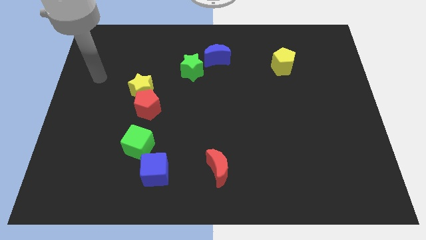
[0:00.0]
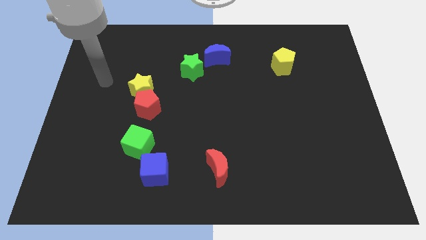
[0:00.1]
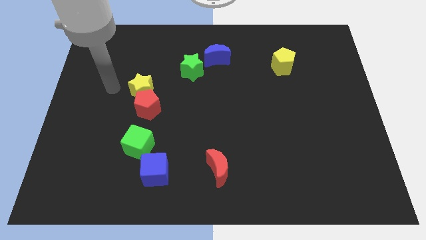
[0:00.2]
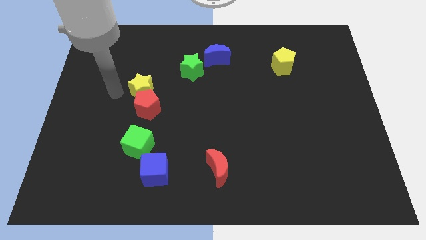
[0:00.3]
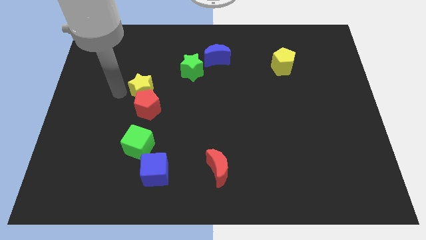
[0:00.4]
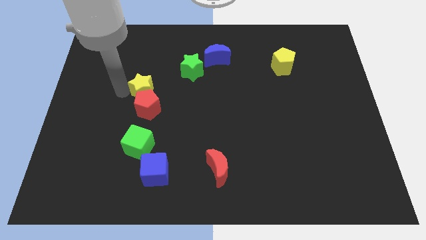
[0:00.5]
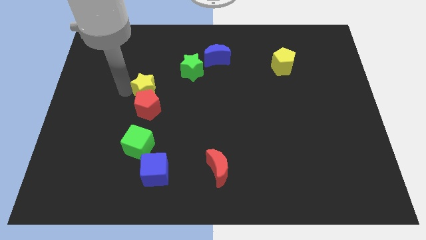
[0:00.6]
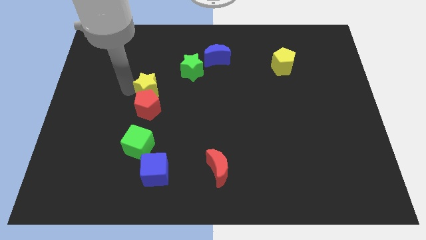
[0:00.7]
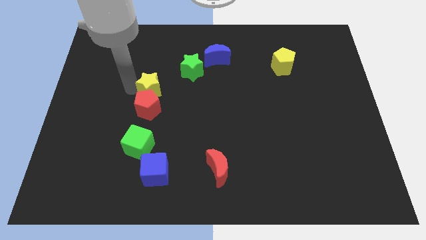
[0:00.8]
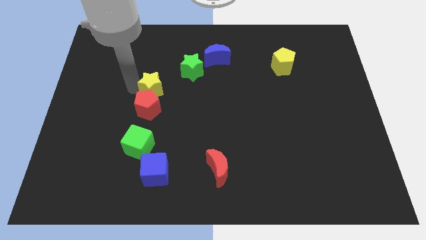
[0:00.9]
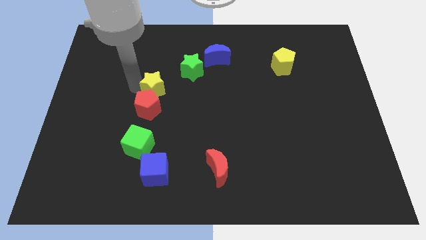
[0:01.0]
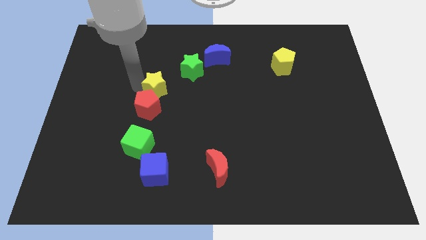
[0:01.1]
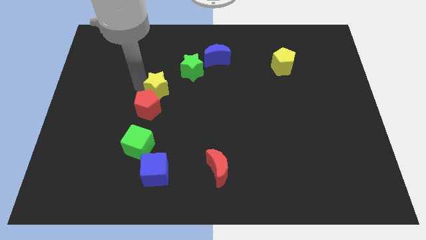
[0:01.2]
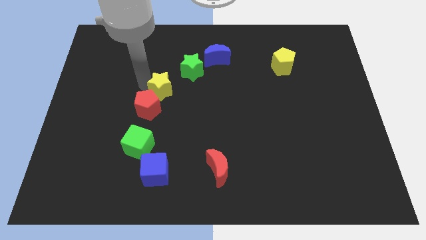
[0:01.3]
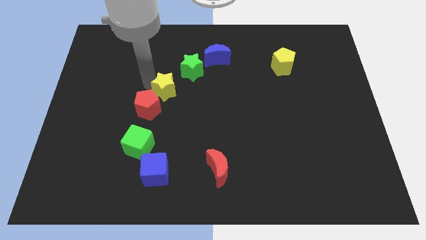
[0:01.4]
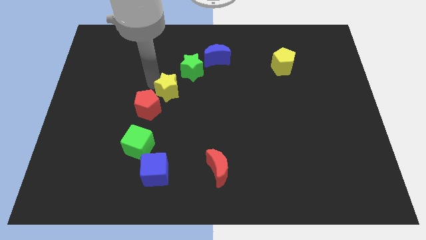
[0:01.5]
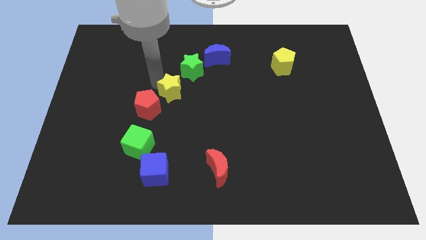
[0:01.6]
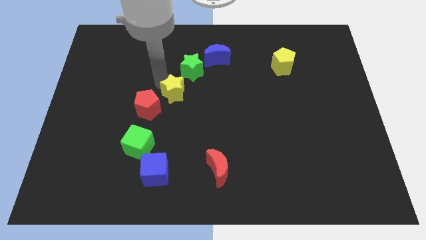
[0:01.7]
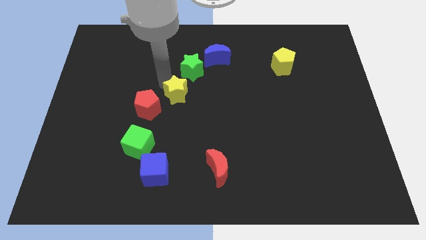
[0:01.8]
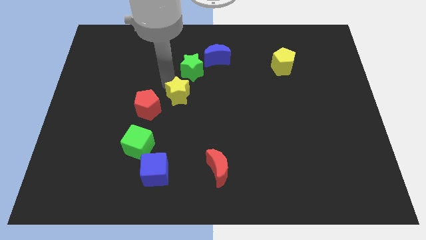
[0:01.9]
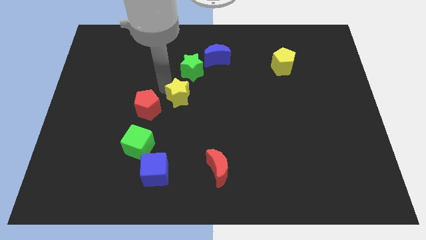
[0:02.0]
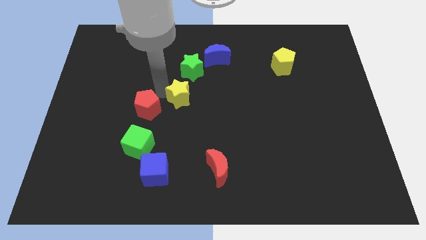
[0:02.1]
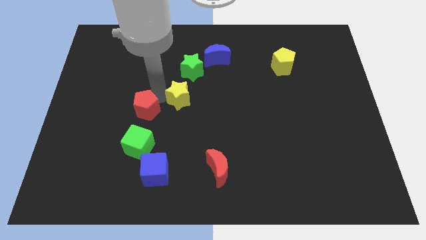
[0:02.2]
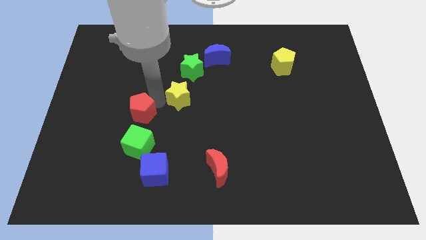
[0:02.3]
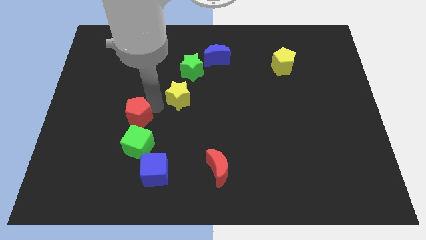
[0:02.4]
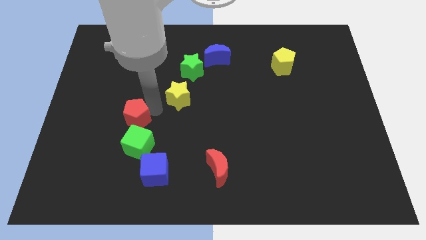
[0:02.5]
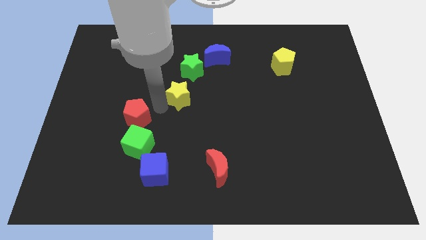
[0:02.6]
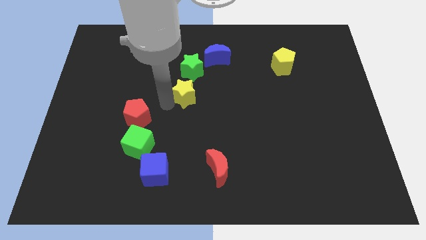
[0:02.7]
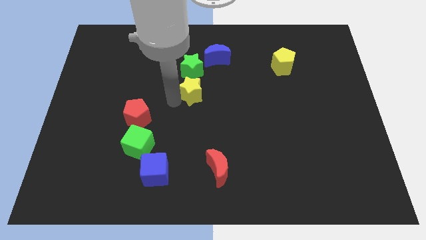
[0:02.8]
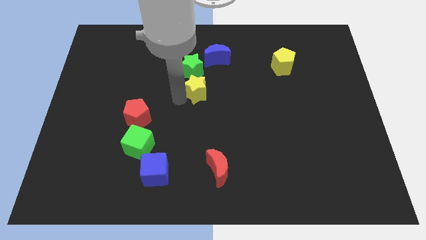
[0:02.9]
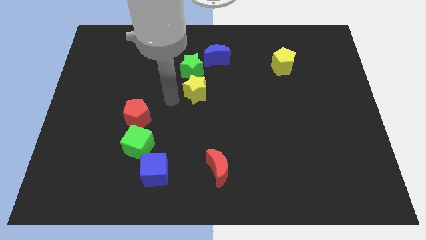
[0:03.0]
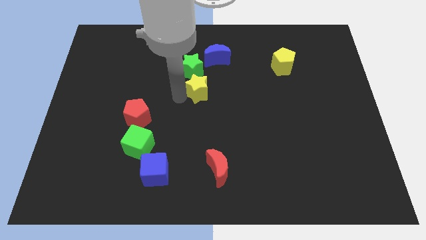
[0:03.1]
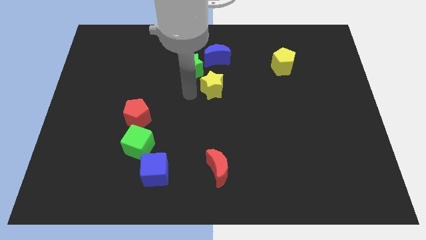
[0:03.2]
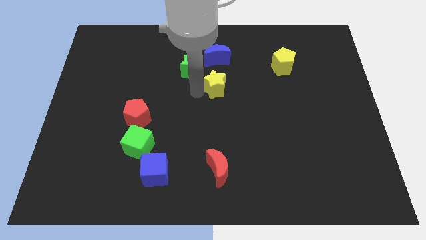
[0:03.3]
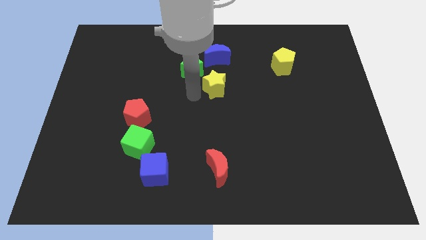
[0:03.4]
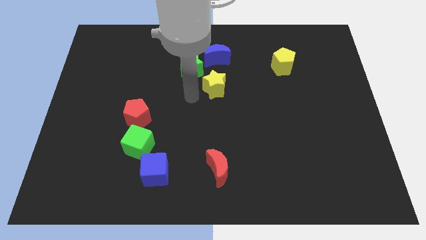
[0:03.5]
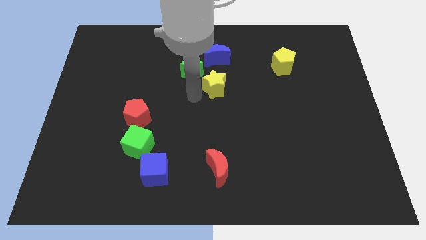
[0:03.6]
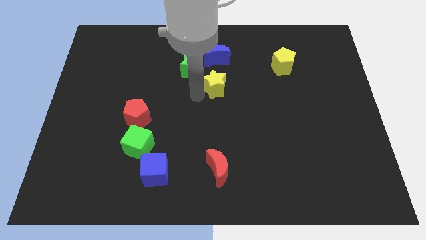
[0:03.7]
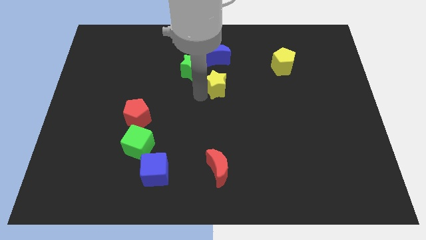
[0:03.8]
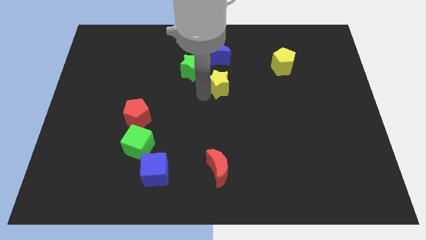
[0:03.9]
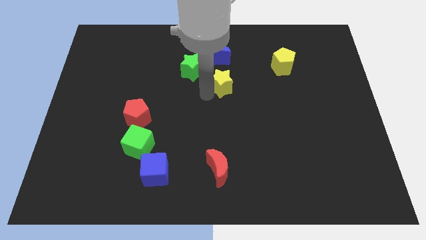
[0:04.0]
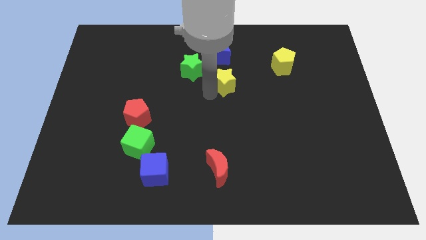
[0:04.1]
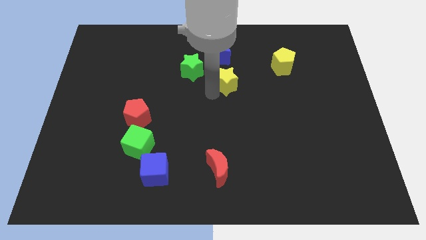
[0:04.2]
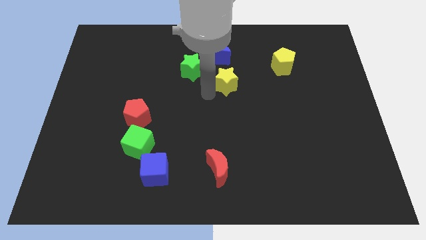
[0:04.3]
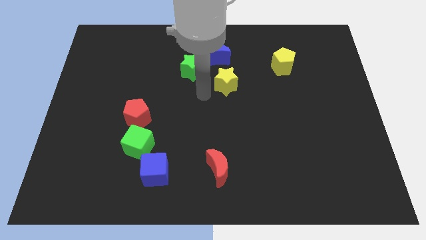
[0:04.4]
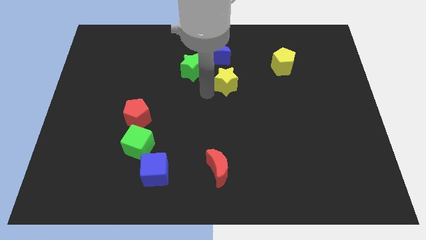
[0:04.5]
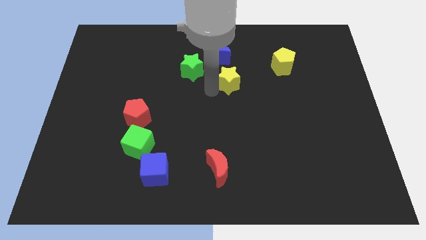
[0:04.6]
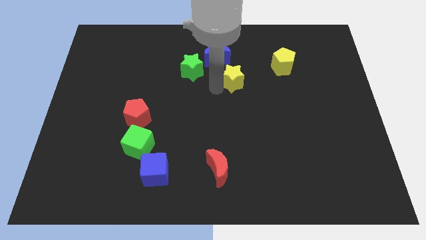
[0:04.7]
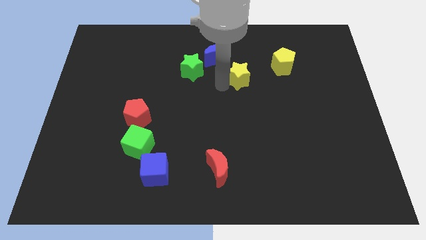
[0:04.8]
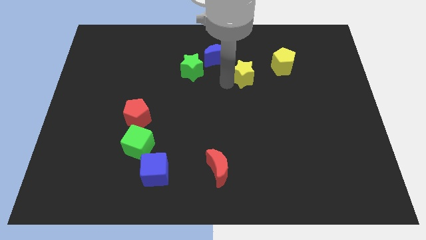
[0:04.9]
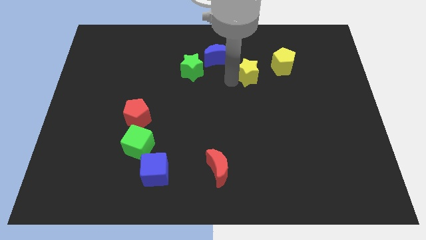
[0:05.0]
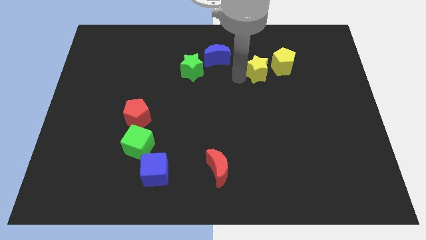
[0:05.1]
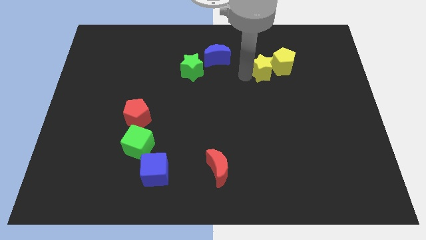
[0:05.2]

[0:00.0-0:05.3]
slide the yellow star to the yellow pentagon

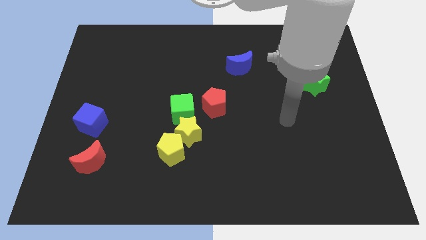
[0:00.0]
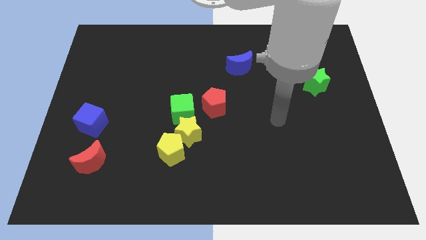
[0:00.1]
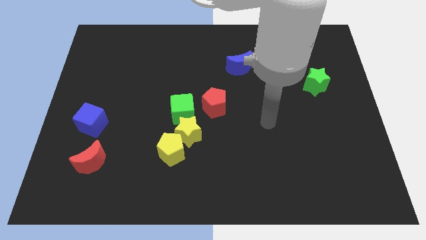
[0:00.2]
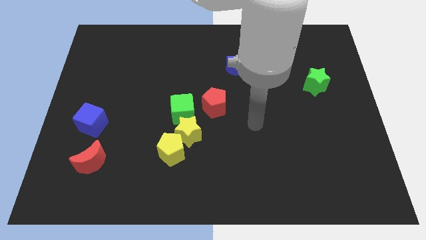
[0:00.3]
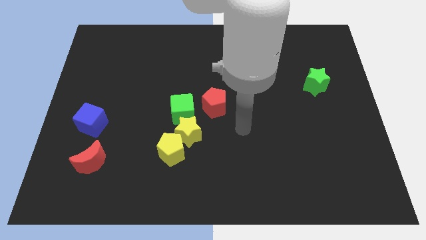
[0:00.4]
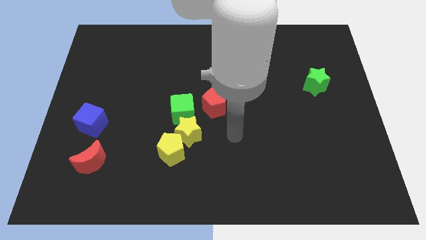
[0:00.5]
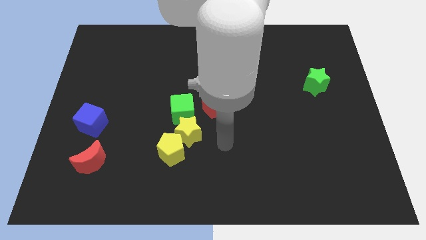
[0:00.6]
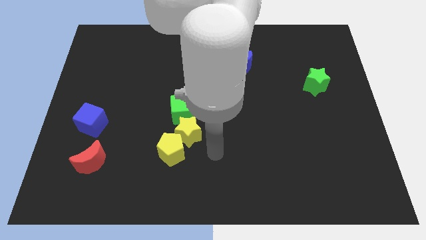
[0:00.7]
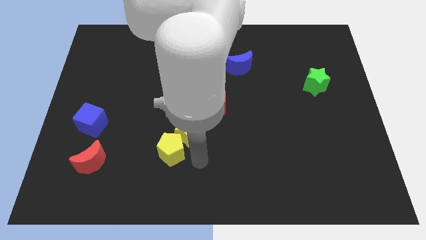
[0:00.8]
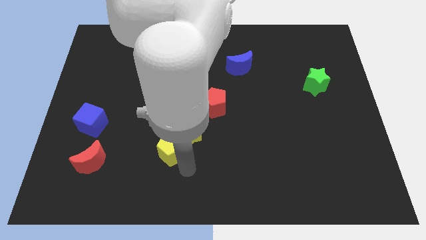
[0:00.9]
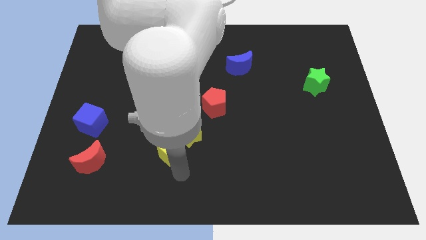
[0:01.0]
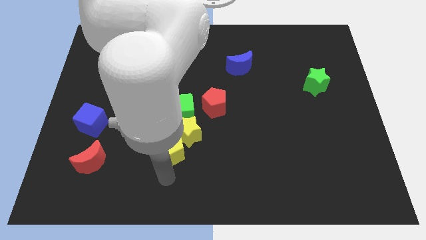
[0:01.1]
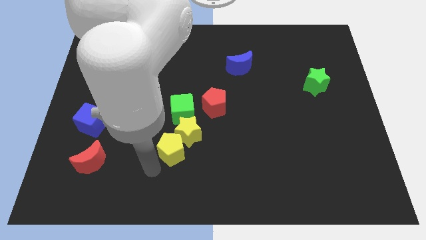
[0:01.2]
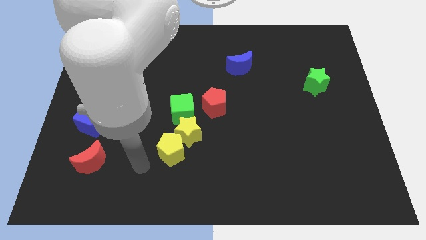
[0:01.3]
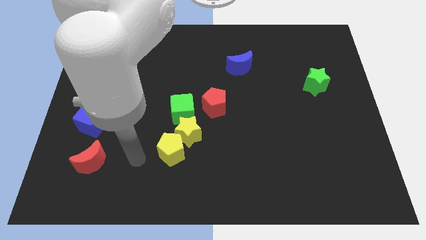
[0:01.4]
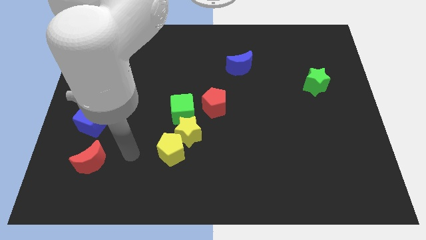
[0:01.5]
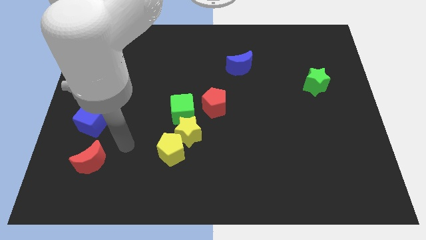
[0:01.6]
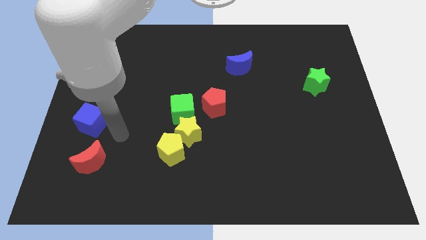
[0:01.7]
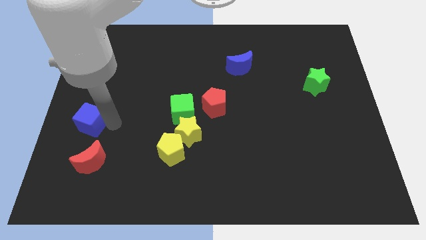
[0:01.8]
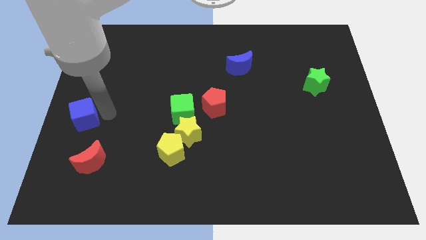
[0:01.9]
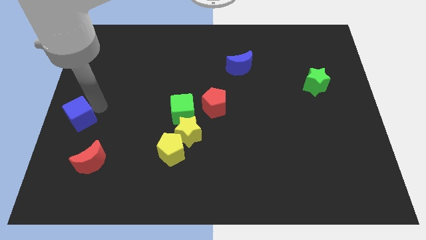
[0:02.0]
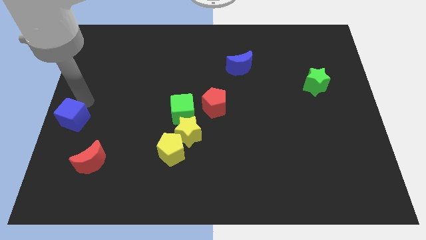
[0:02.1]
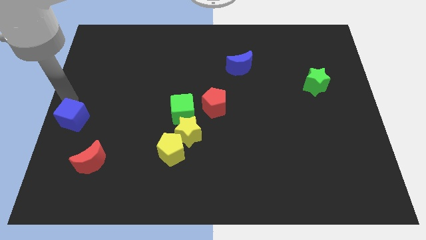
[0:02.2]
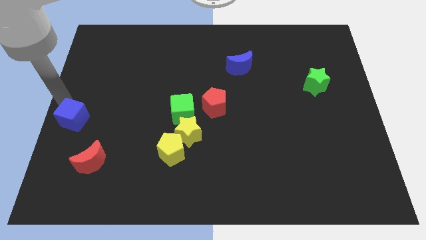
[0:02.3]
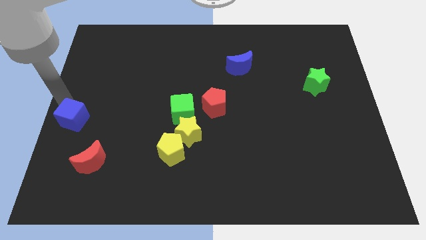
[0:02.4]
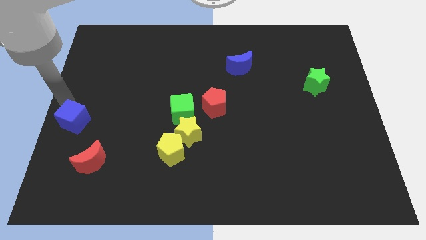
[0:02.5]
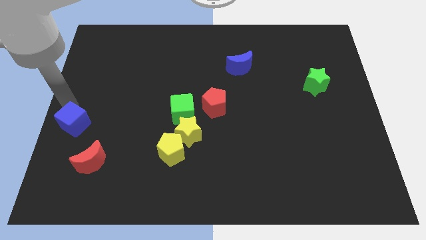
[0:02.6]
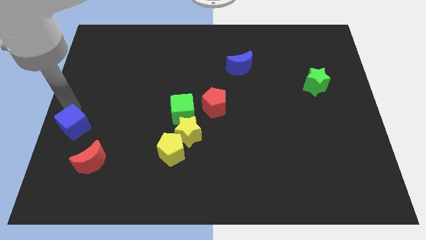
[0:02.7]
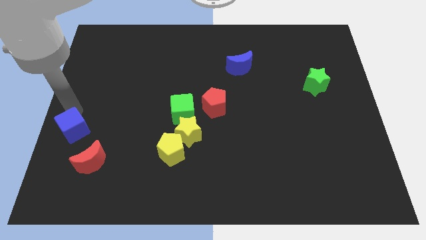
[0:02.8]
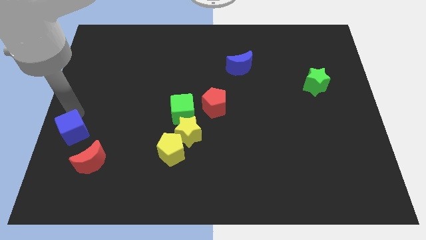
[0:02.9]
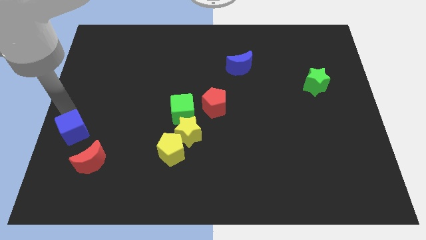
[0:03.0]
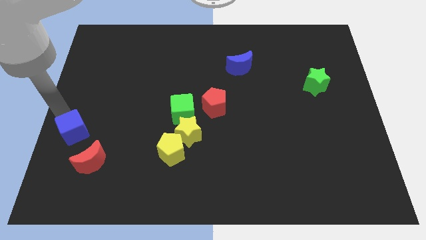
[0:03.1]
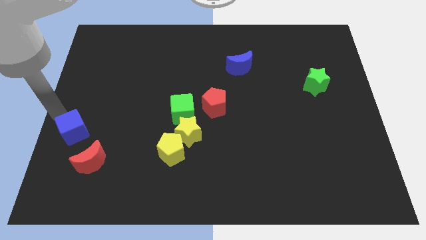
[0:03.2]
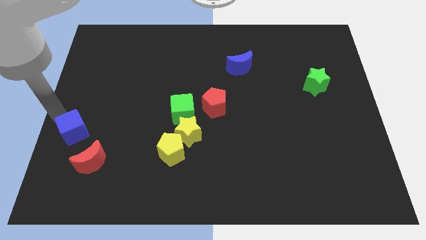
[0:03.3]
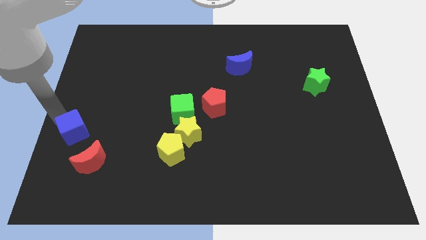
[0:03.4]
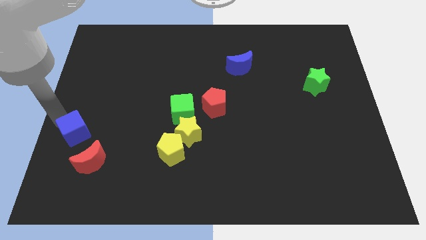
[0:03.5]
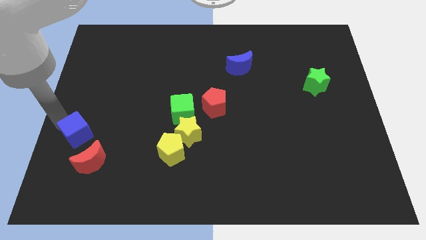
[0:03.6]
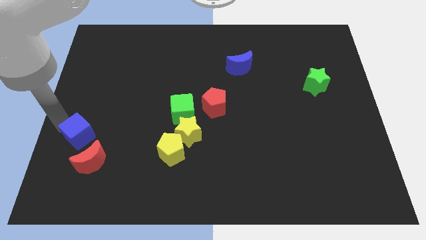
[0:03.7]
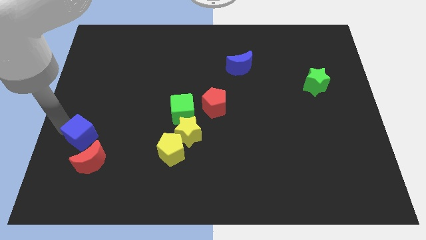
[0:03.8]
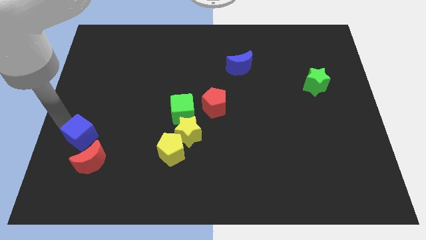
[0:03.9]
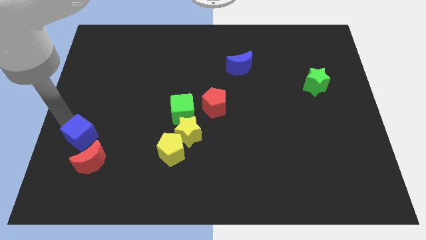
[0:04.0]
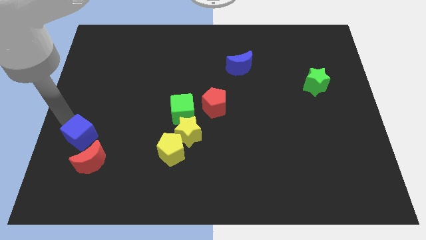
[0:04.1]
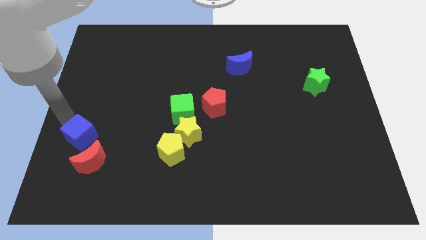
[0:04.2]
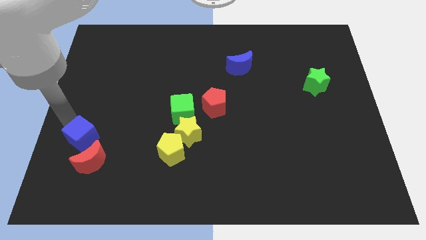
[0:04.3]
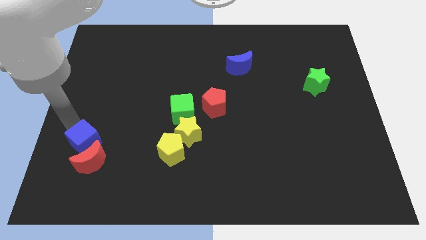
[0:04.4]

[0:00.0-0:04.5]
push the blue cube towards the red moon
